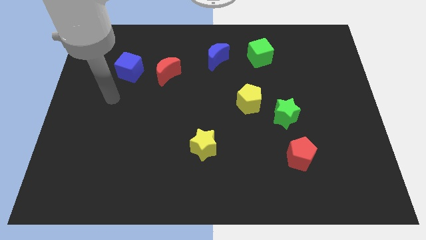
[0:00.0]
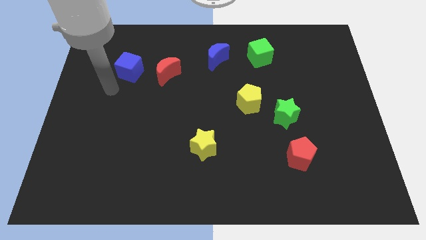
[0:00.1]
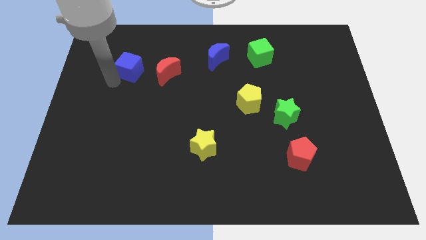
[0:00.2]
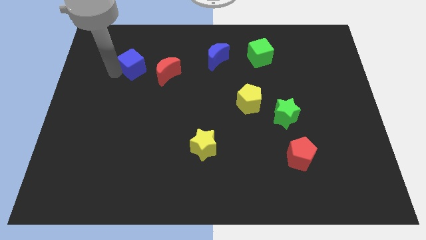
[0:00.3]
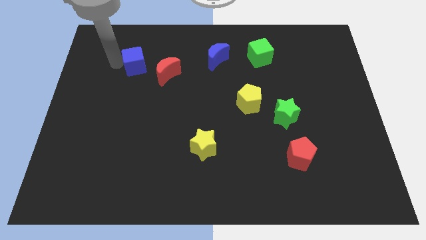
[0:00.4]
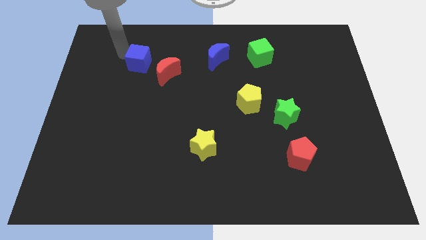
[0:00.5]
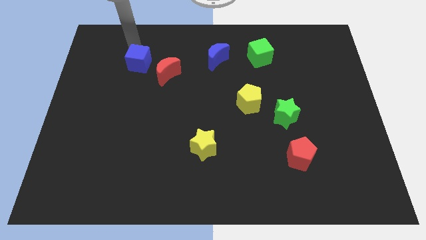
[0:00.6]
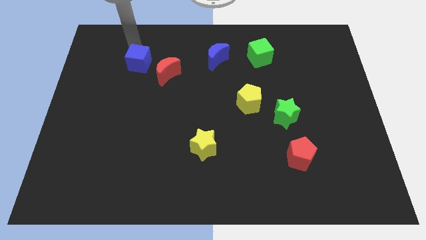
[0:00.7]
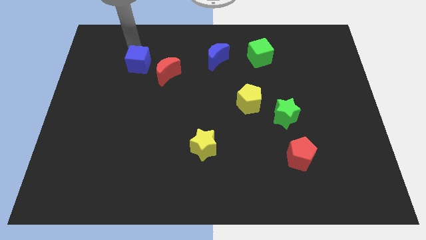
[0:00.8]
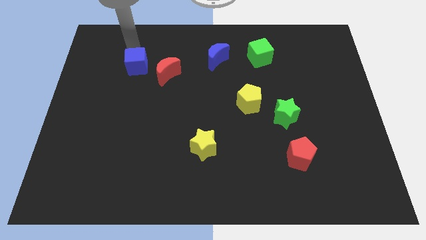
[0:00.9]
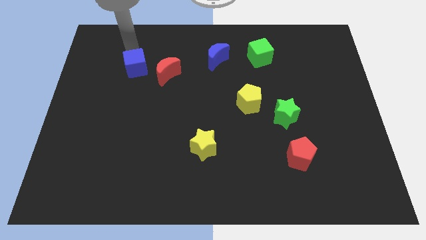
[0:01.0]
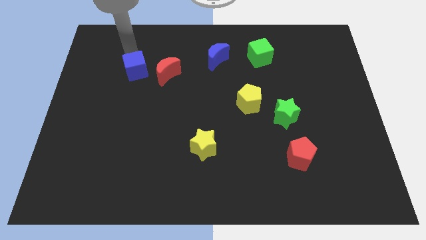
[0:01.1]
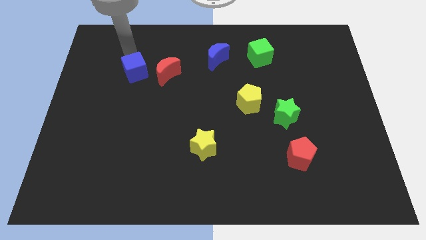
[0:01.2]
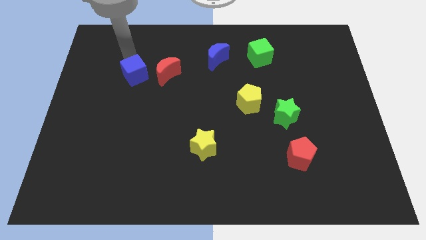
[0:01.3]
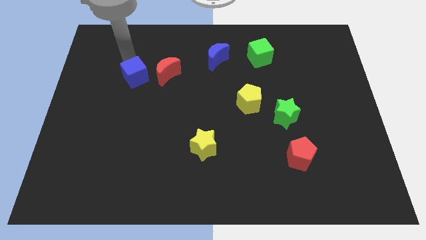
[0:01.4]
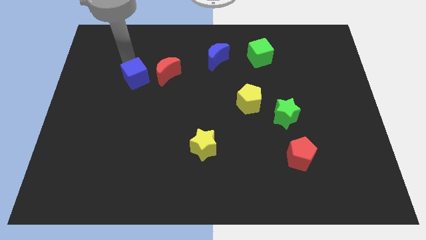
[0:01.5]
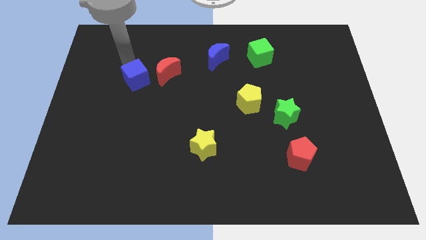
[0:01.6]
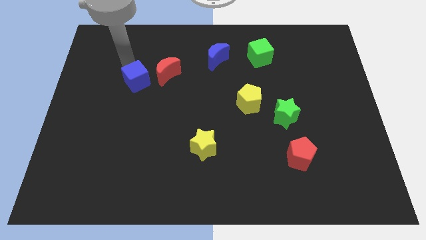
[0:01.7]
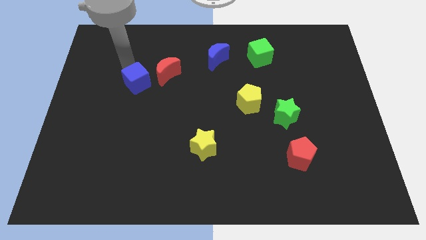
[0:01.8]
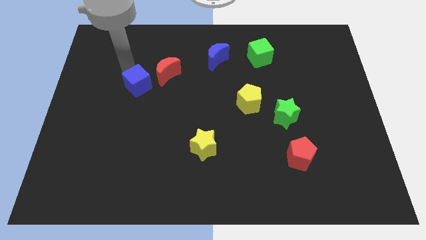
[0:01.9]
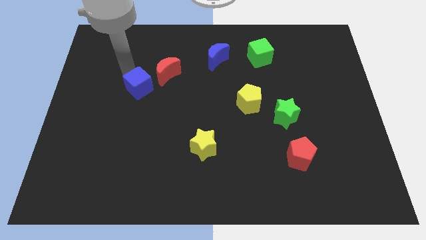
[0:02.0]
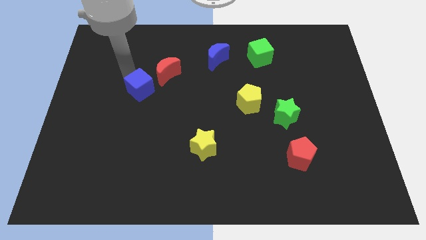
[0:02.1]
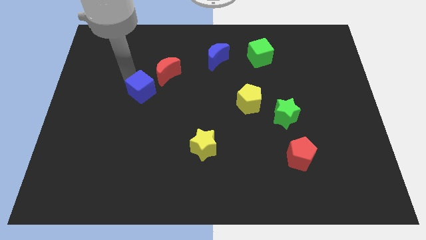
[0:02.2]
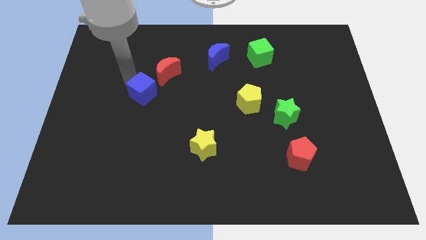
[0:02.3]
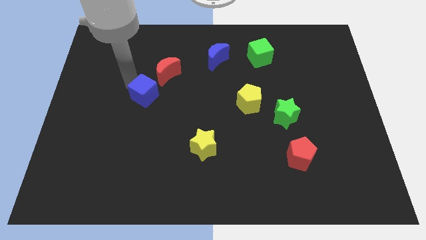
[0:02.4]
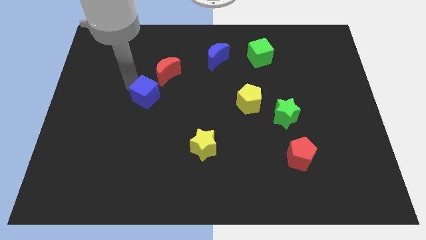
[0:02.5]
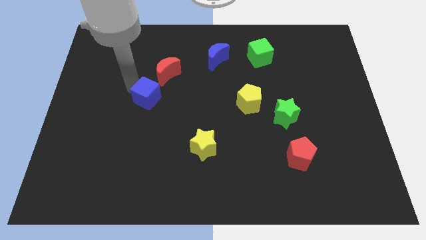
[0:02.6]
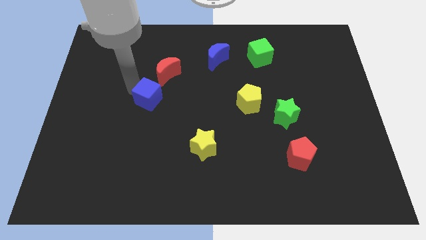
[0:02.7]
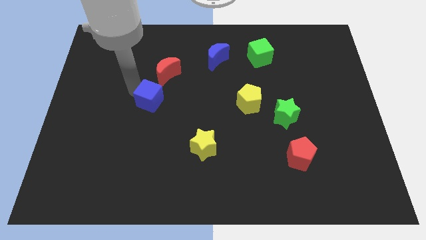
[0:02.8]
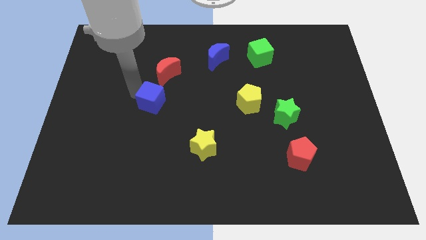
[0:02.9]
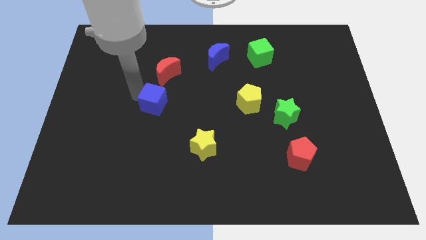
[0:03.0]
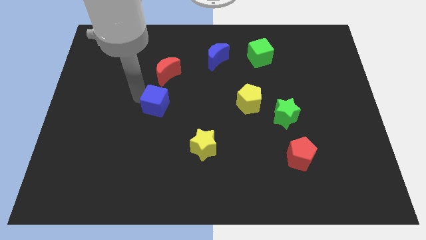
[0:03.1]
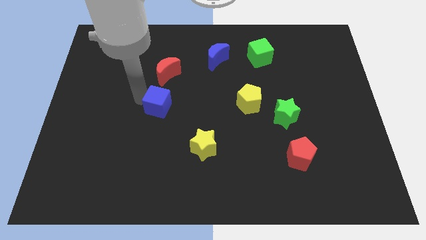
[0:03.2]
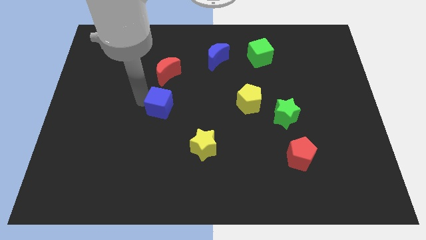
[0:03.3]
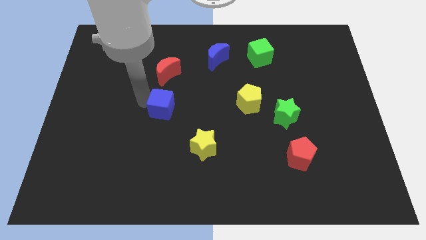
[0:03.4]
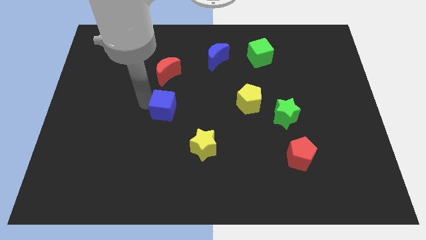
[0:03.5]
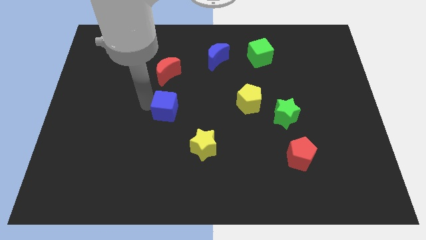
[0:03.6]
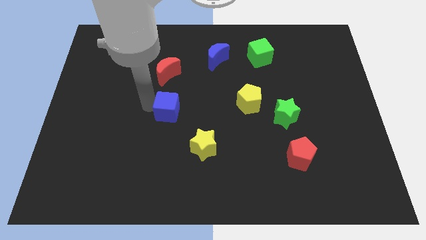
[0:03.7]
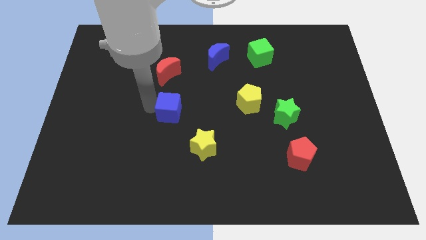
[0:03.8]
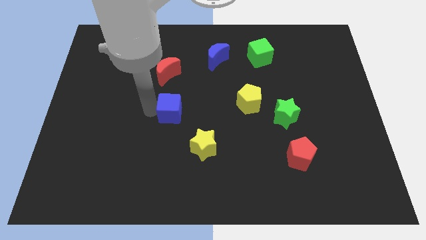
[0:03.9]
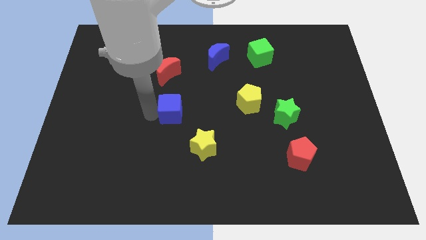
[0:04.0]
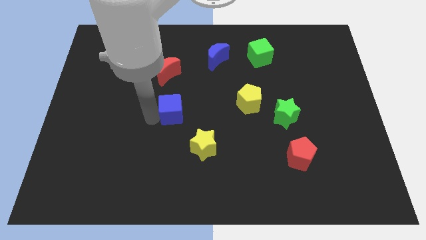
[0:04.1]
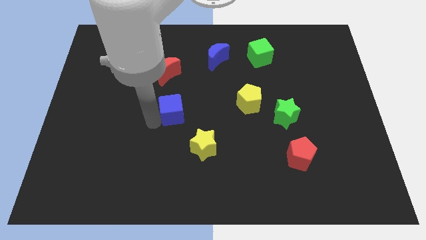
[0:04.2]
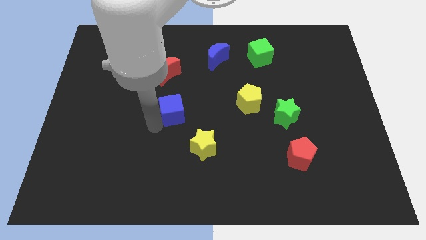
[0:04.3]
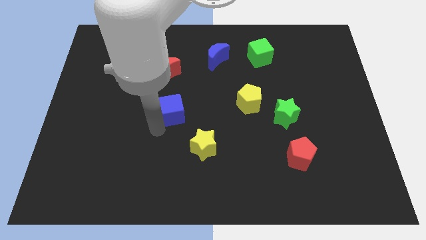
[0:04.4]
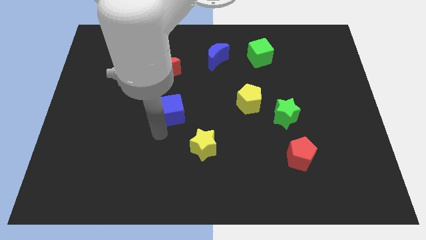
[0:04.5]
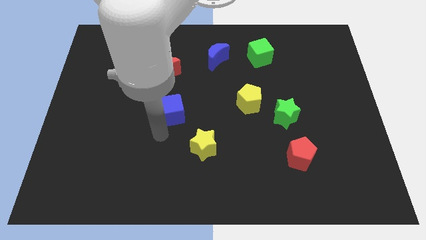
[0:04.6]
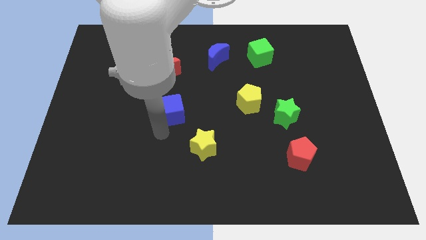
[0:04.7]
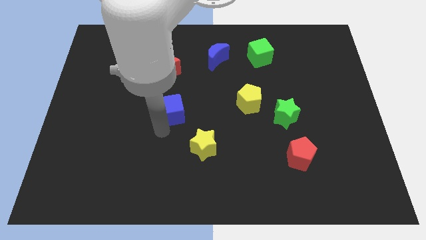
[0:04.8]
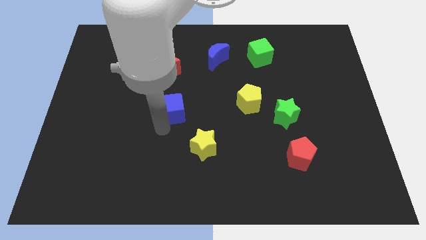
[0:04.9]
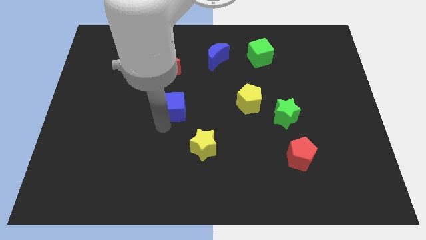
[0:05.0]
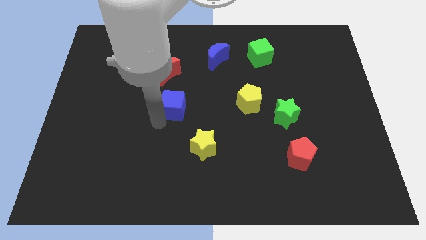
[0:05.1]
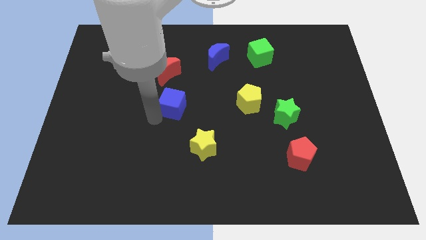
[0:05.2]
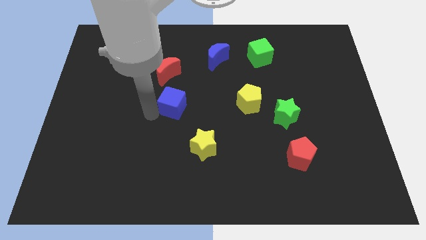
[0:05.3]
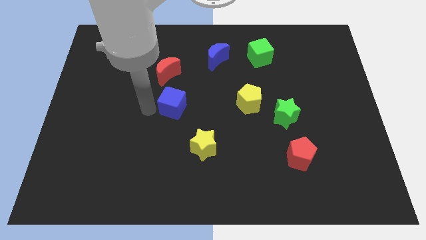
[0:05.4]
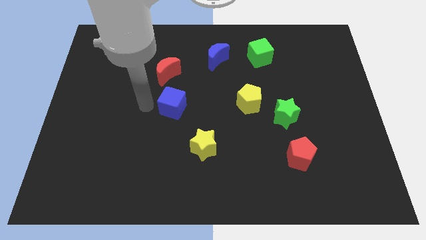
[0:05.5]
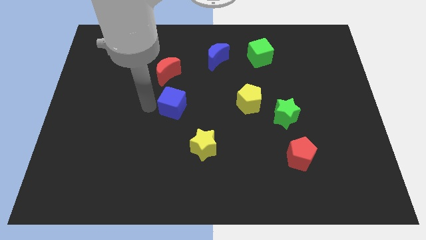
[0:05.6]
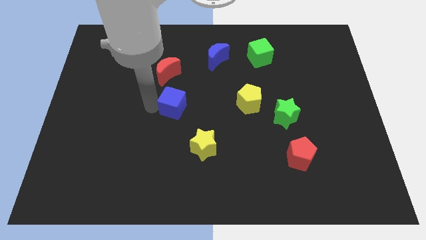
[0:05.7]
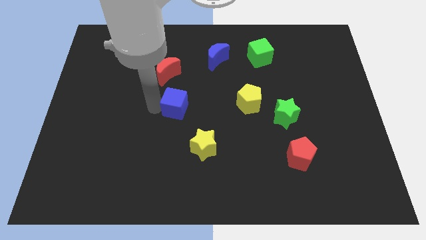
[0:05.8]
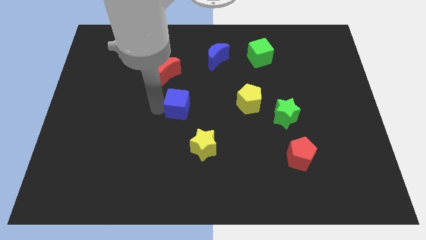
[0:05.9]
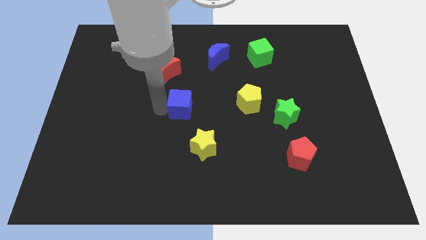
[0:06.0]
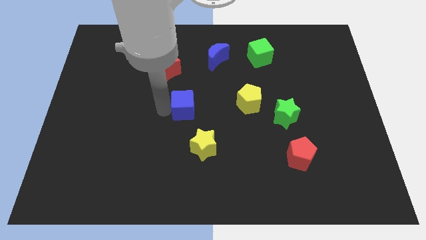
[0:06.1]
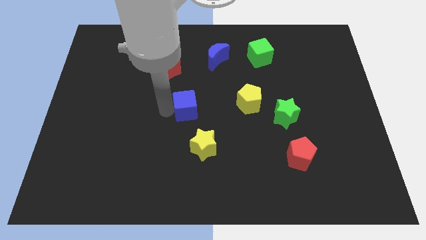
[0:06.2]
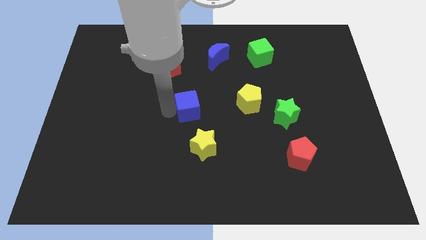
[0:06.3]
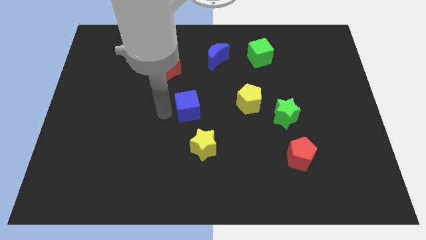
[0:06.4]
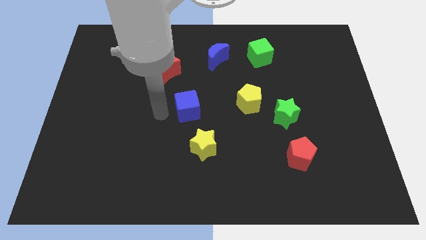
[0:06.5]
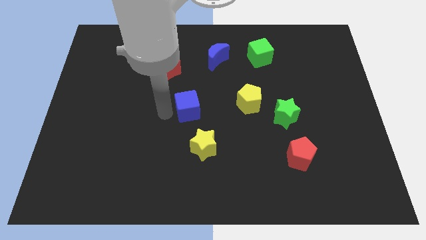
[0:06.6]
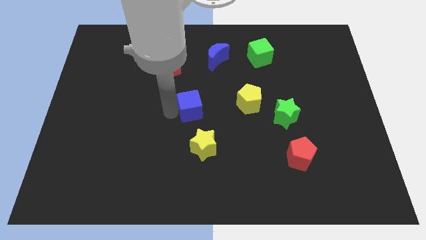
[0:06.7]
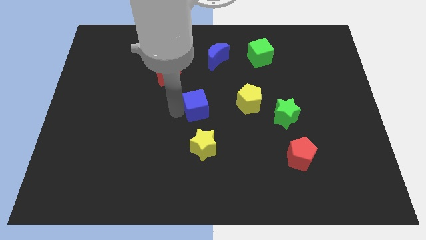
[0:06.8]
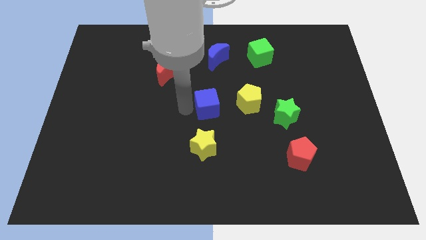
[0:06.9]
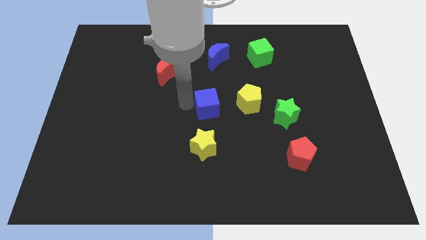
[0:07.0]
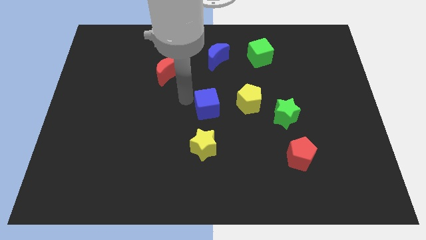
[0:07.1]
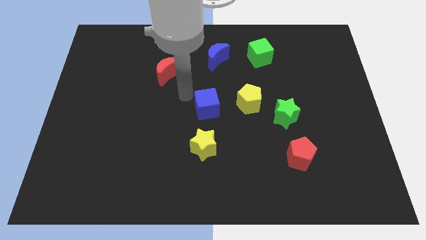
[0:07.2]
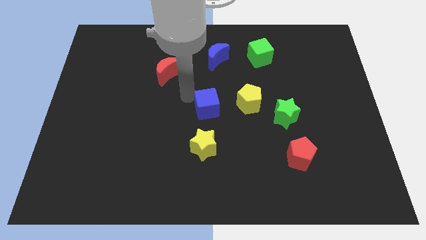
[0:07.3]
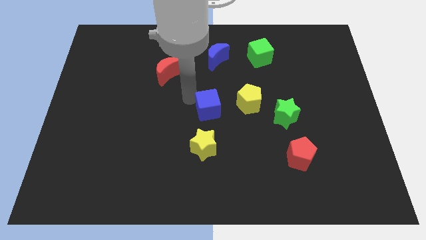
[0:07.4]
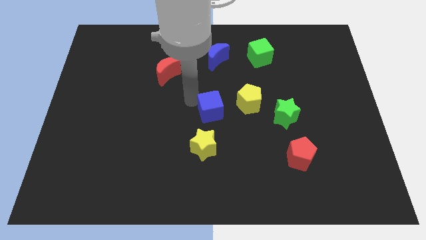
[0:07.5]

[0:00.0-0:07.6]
push the blue cube diagonally down and to the left of the yellow pentagon

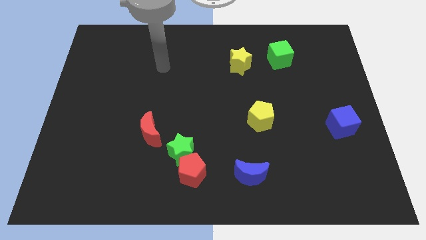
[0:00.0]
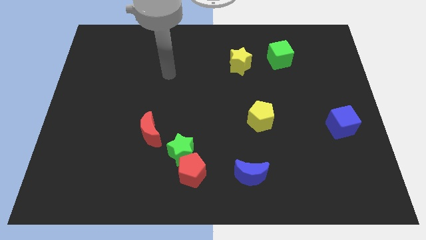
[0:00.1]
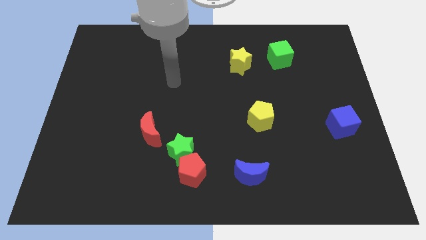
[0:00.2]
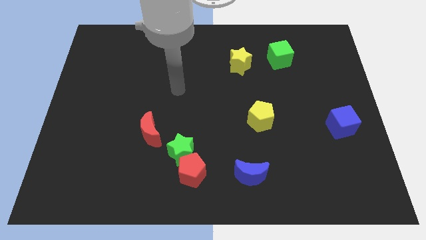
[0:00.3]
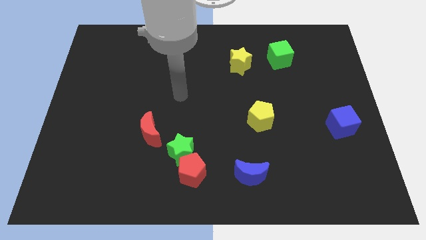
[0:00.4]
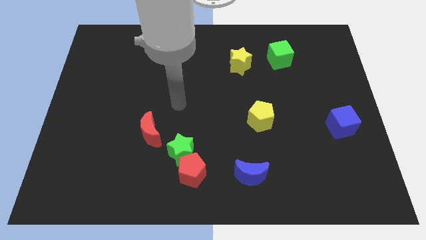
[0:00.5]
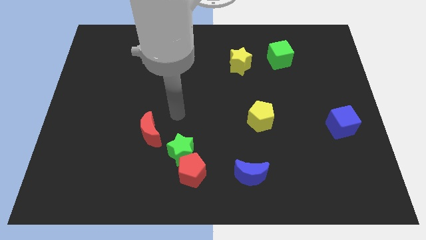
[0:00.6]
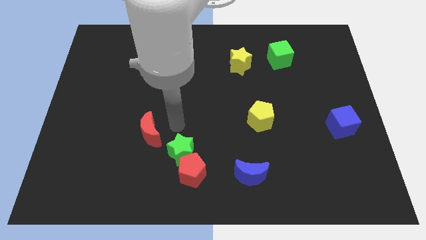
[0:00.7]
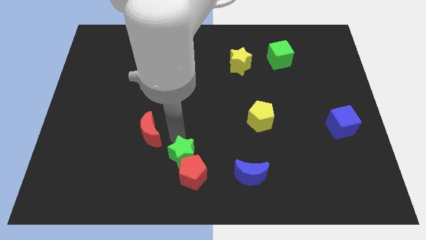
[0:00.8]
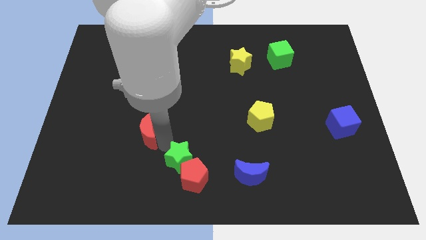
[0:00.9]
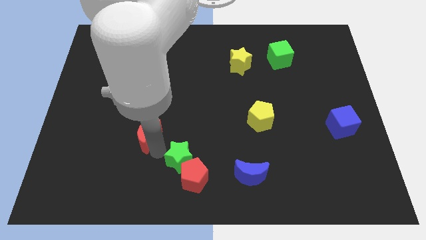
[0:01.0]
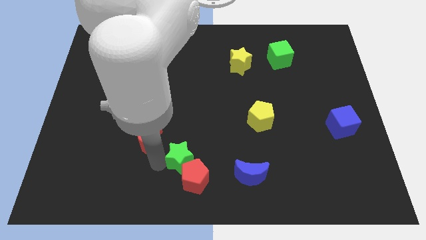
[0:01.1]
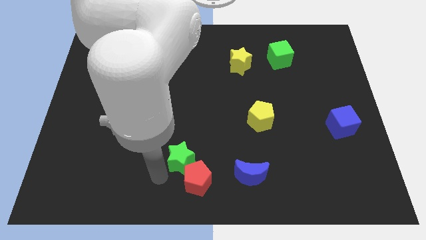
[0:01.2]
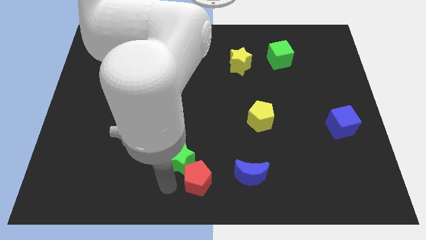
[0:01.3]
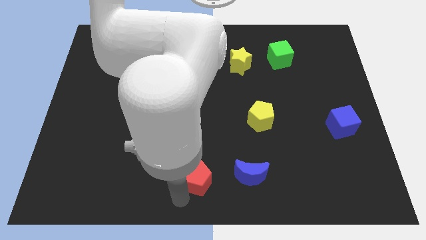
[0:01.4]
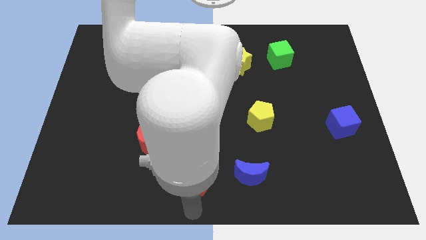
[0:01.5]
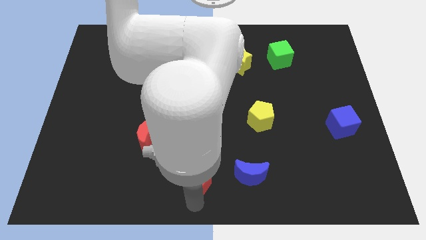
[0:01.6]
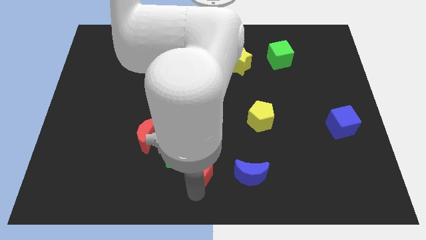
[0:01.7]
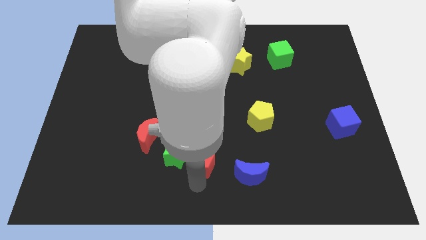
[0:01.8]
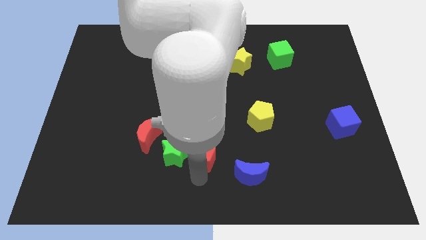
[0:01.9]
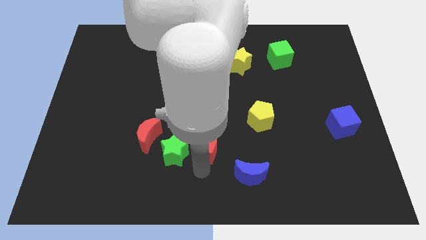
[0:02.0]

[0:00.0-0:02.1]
move the red pentagon right of the red moon
